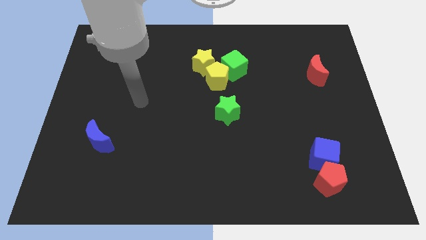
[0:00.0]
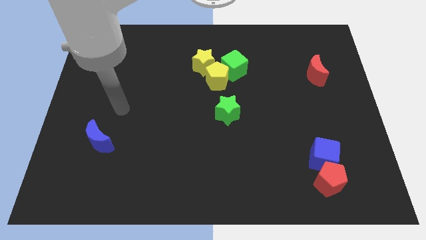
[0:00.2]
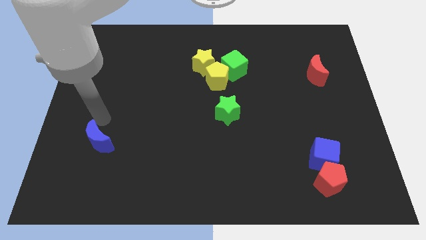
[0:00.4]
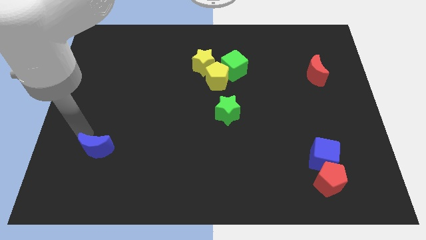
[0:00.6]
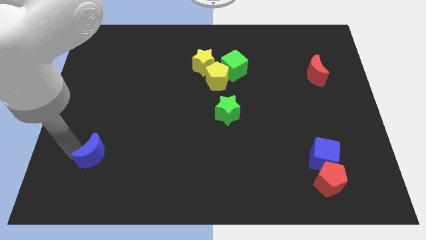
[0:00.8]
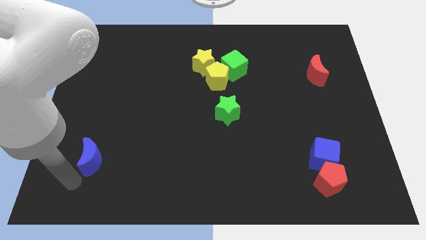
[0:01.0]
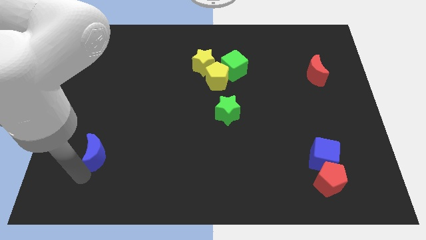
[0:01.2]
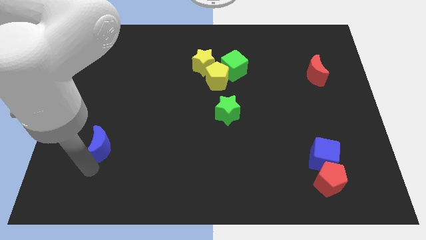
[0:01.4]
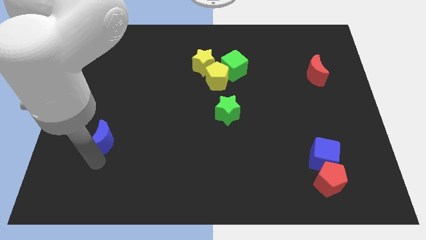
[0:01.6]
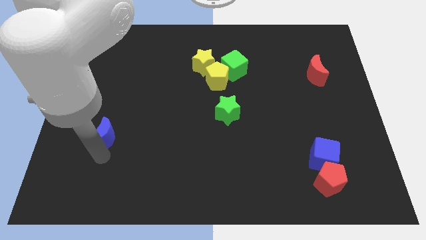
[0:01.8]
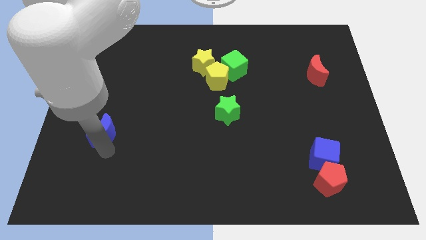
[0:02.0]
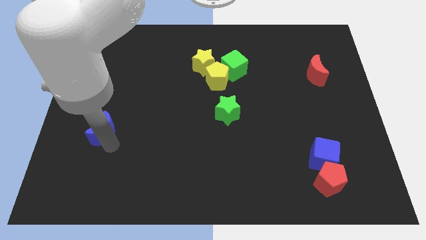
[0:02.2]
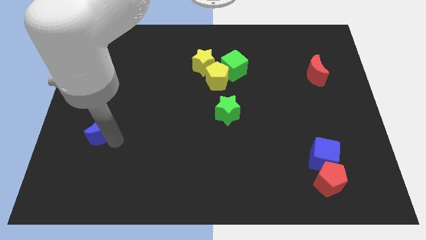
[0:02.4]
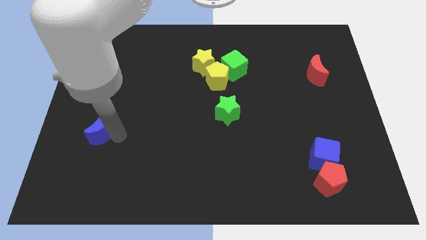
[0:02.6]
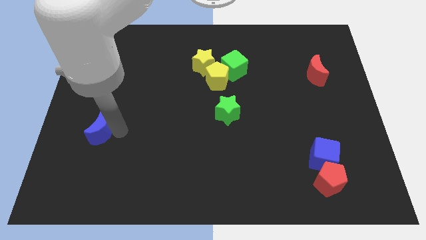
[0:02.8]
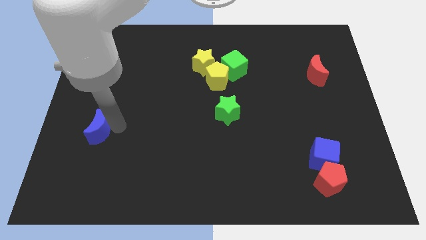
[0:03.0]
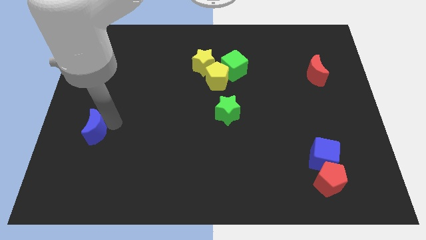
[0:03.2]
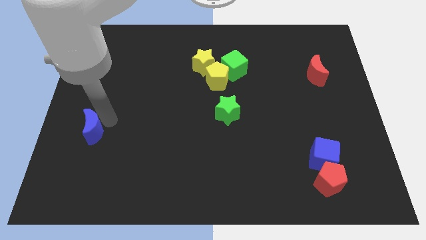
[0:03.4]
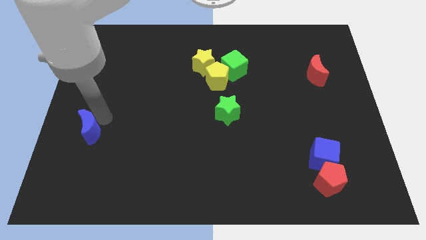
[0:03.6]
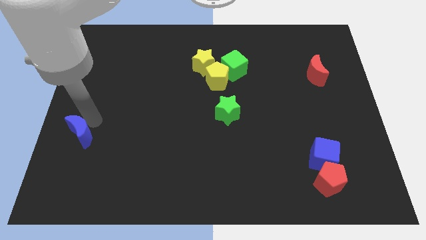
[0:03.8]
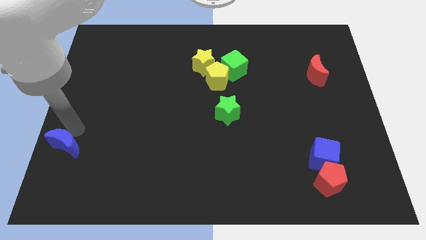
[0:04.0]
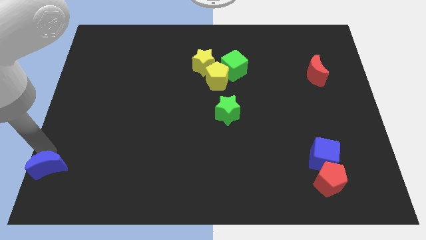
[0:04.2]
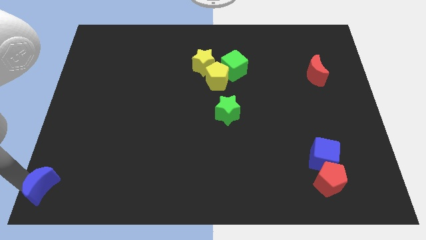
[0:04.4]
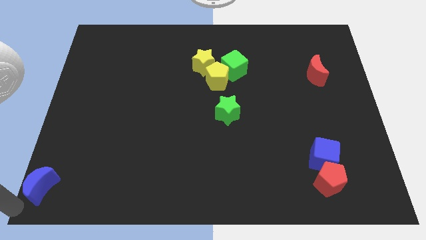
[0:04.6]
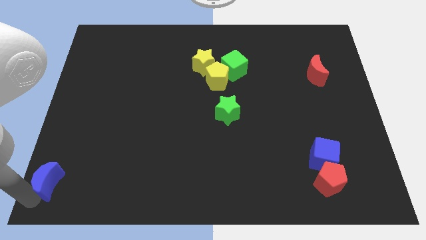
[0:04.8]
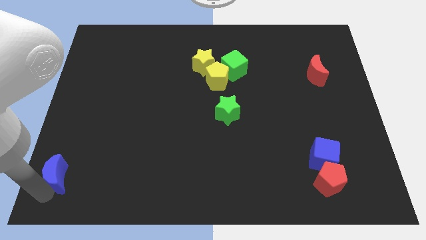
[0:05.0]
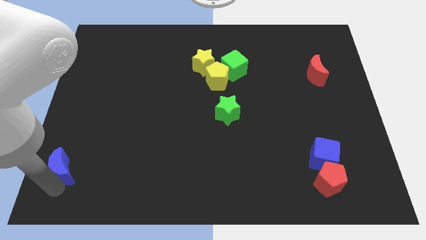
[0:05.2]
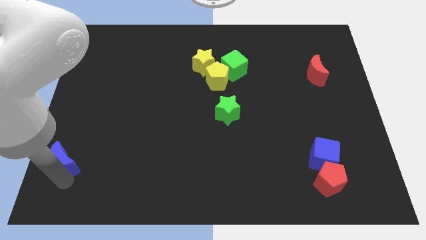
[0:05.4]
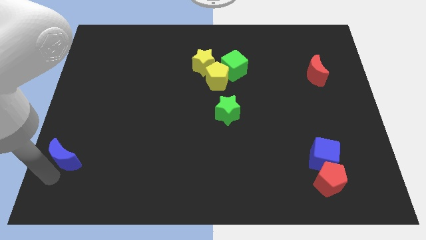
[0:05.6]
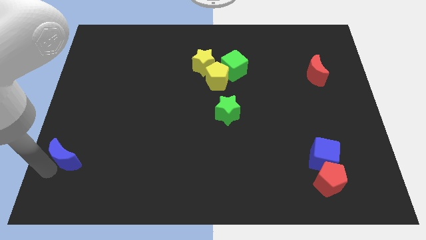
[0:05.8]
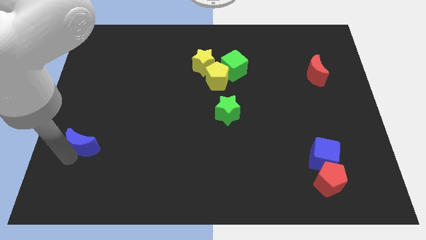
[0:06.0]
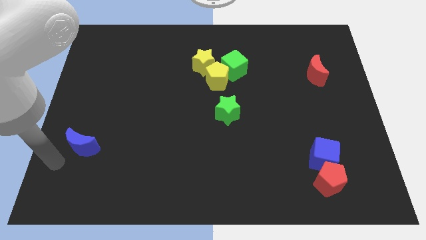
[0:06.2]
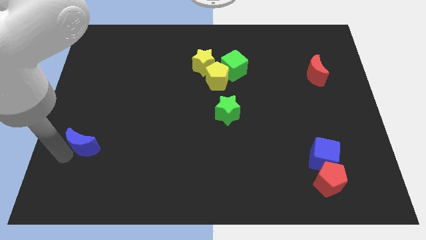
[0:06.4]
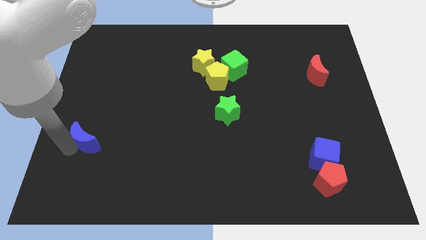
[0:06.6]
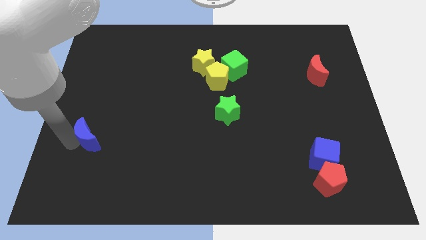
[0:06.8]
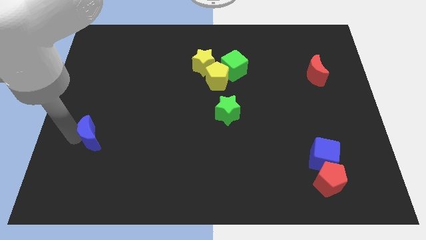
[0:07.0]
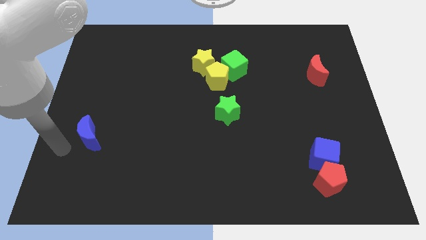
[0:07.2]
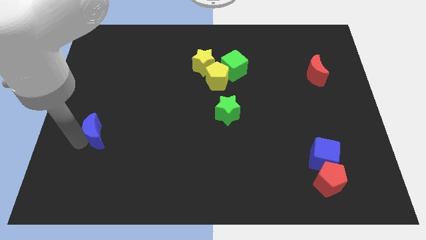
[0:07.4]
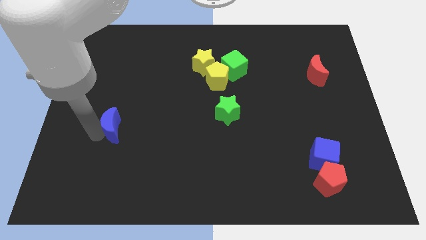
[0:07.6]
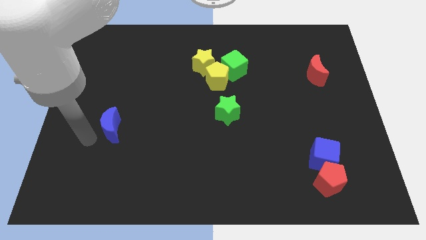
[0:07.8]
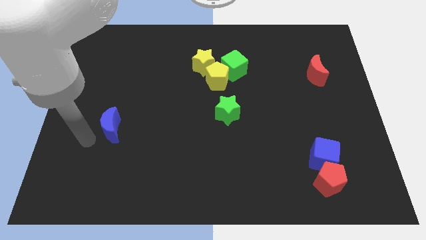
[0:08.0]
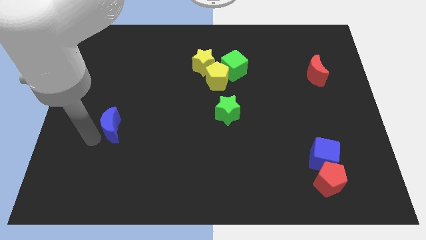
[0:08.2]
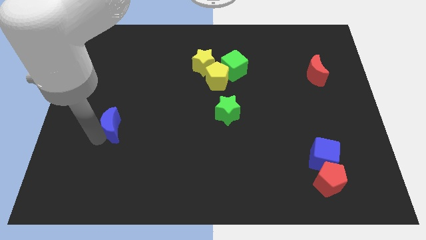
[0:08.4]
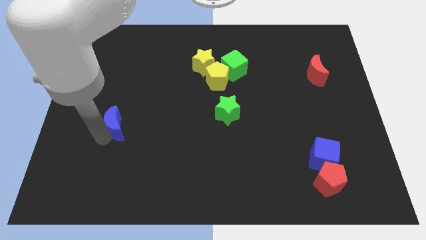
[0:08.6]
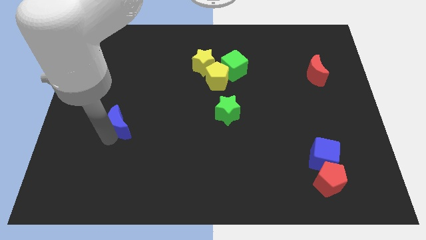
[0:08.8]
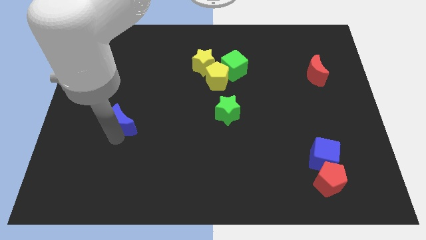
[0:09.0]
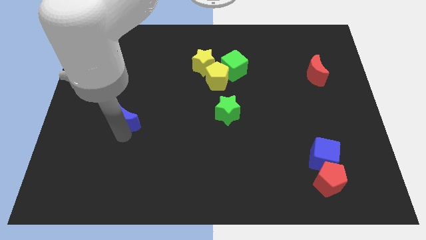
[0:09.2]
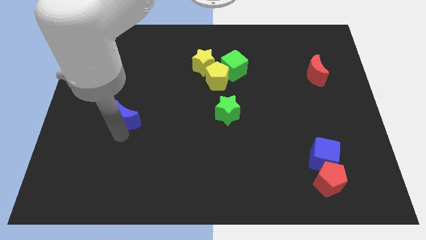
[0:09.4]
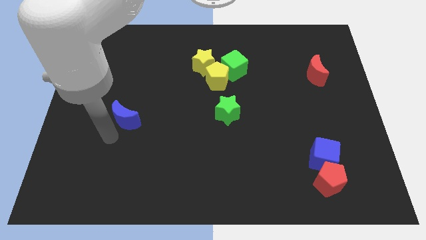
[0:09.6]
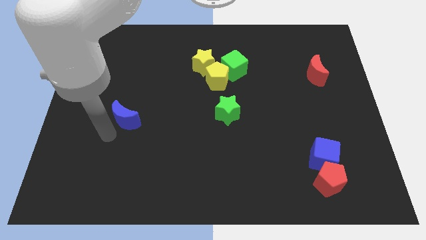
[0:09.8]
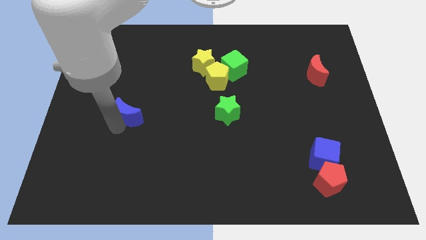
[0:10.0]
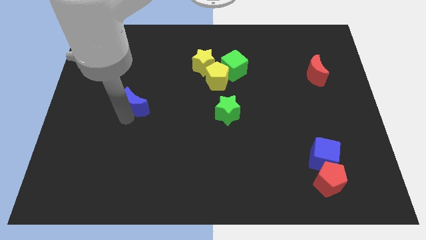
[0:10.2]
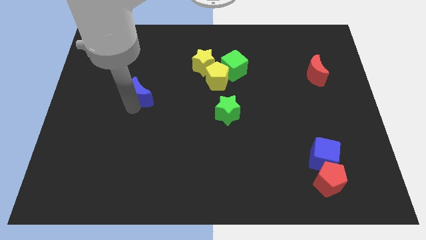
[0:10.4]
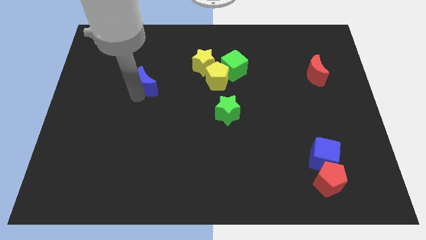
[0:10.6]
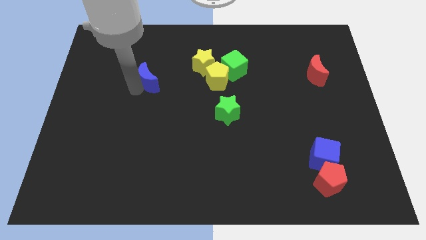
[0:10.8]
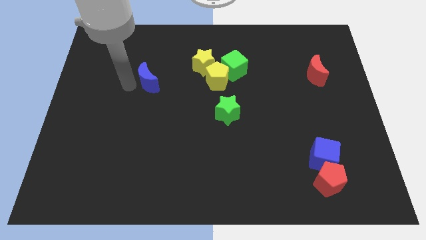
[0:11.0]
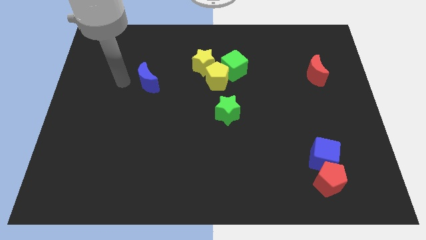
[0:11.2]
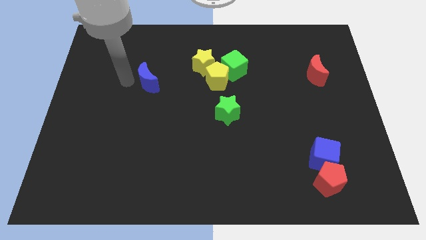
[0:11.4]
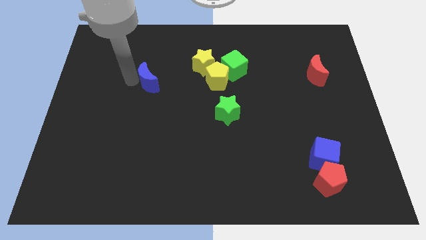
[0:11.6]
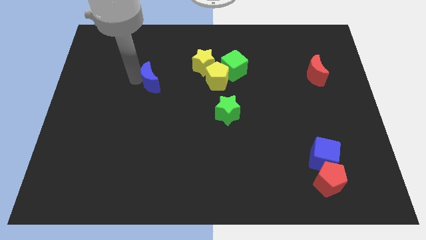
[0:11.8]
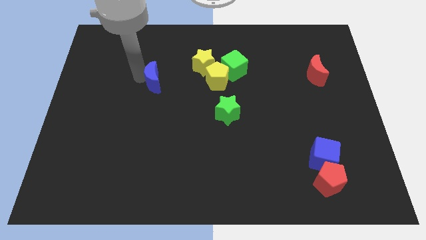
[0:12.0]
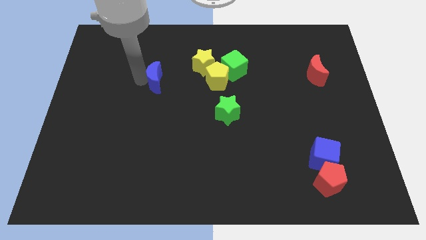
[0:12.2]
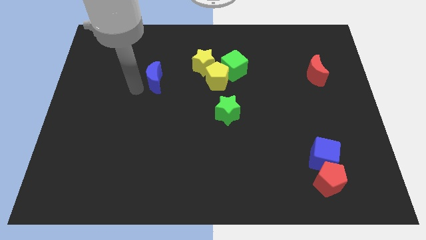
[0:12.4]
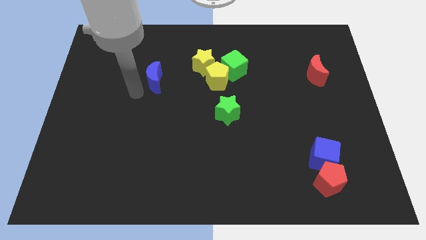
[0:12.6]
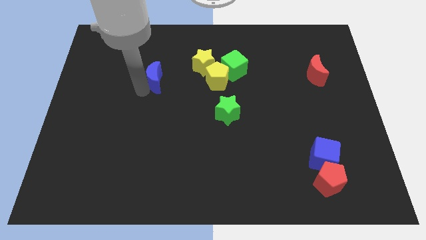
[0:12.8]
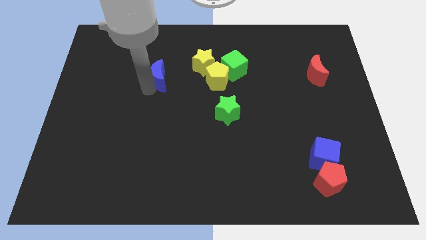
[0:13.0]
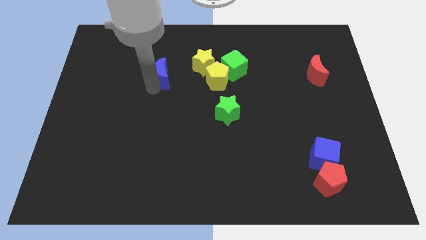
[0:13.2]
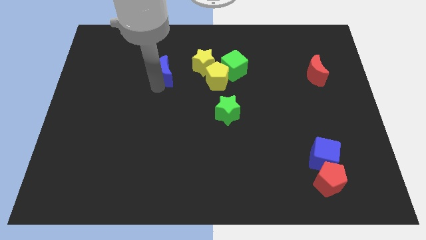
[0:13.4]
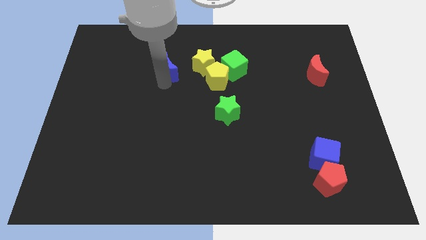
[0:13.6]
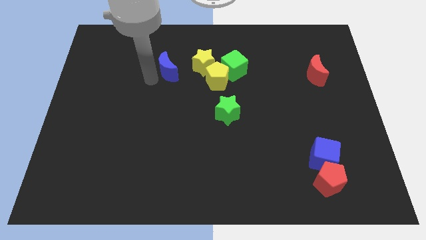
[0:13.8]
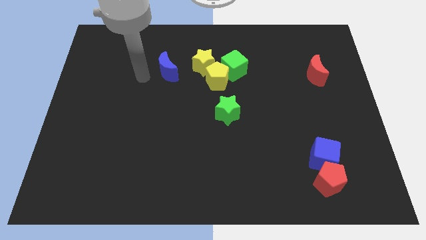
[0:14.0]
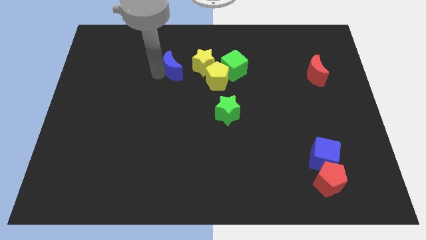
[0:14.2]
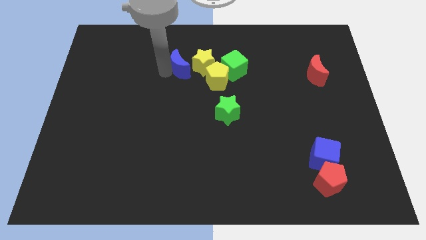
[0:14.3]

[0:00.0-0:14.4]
move the blue moon to the top left side of the yellow pentagon

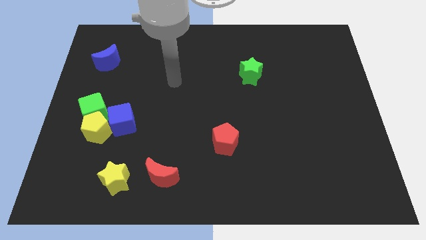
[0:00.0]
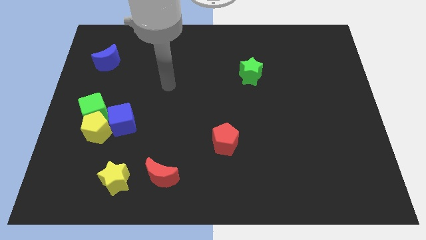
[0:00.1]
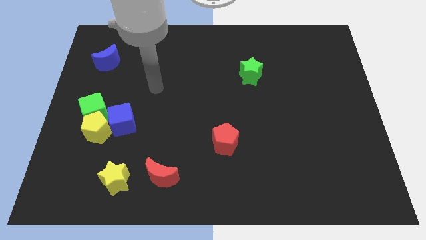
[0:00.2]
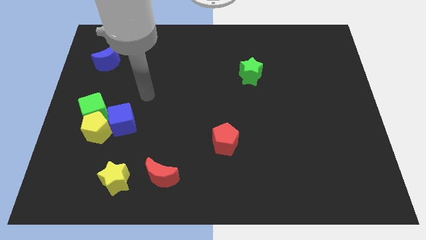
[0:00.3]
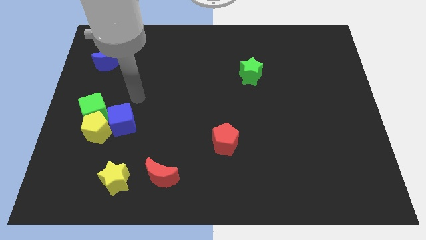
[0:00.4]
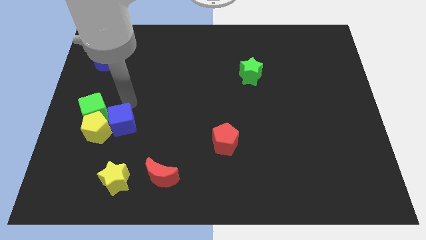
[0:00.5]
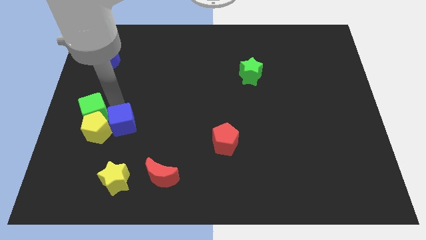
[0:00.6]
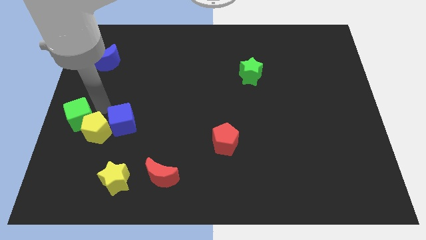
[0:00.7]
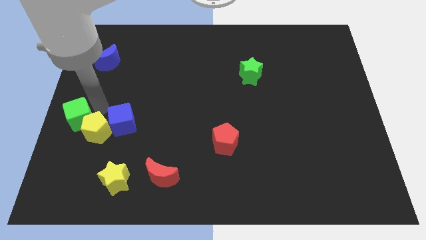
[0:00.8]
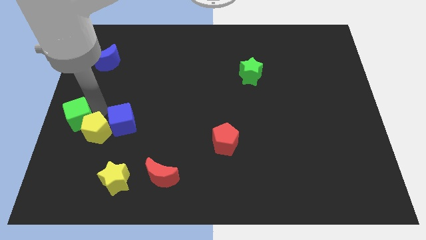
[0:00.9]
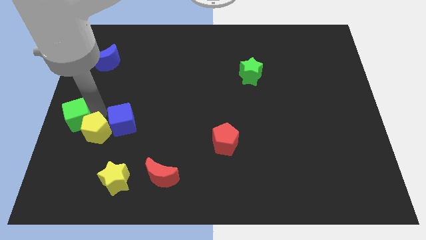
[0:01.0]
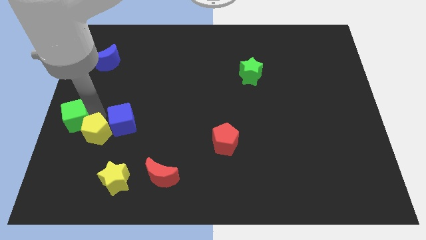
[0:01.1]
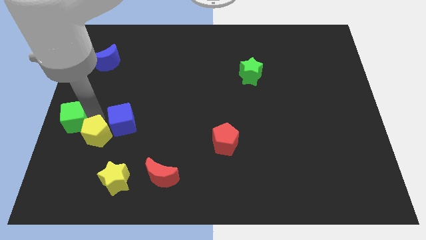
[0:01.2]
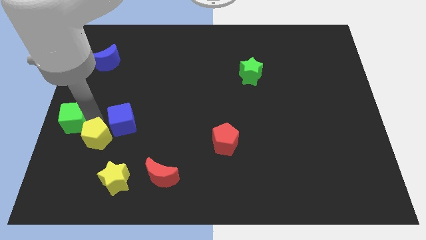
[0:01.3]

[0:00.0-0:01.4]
put the yellow pentagon diagonally up and to the left of the yellow star
